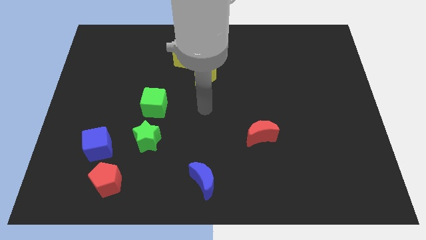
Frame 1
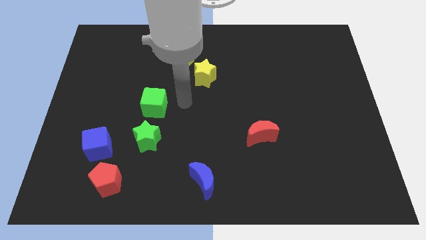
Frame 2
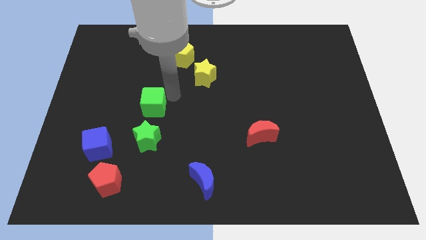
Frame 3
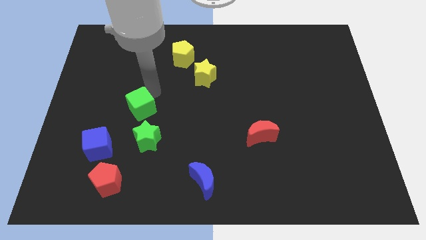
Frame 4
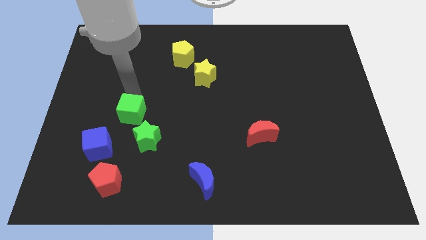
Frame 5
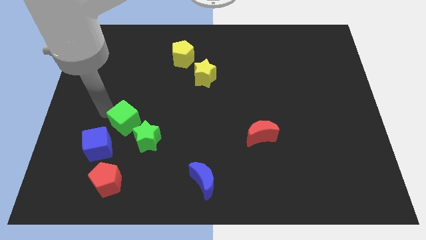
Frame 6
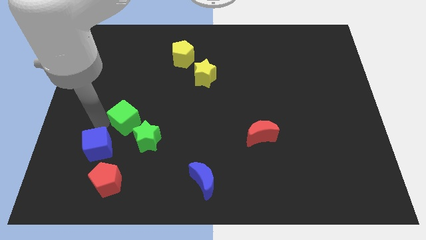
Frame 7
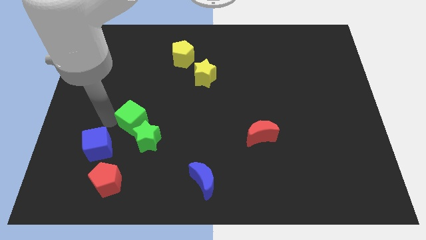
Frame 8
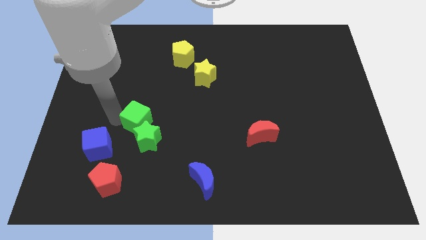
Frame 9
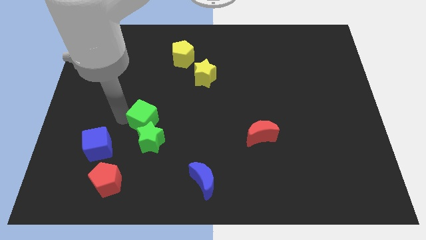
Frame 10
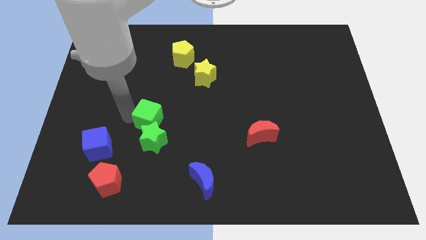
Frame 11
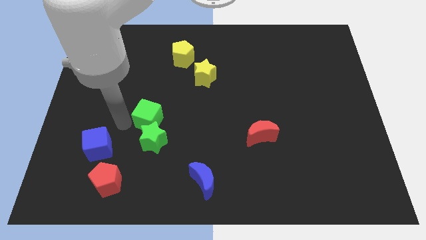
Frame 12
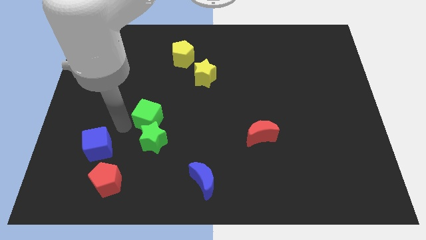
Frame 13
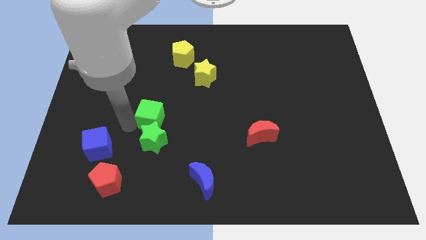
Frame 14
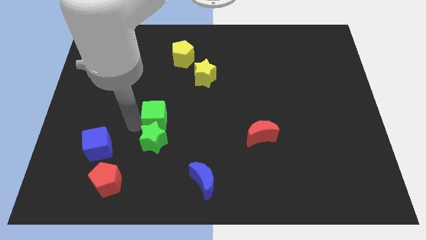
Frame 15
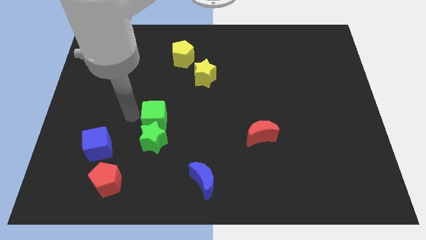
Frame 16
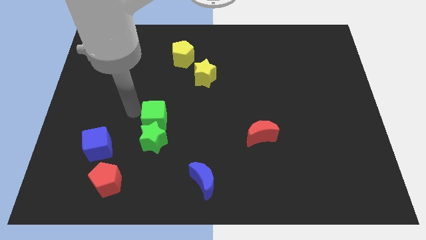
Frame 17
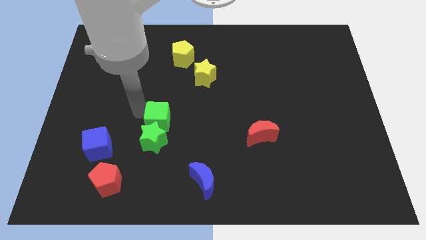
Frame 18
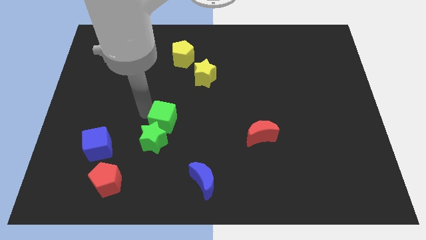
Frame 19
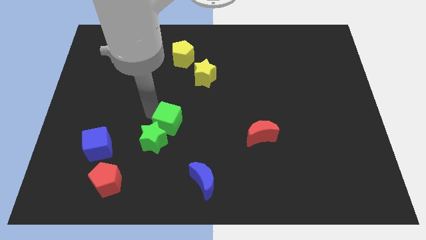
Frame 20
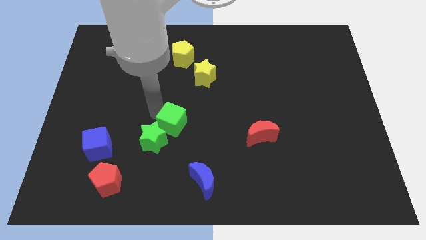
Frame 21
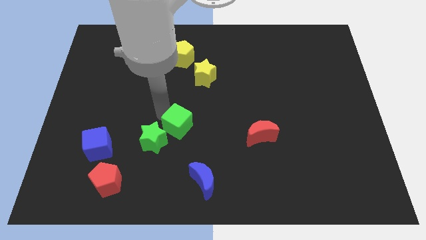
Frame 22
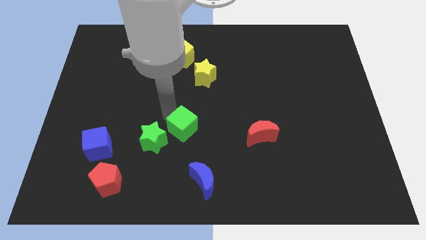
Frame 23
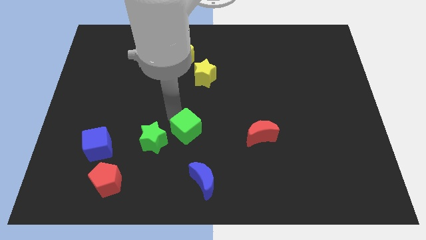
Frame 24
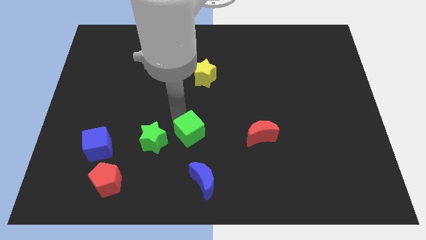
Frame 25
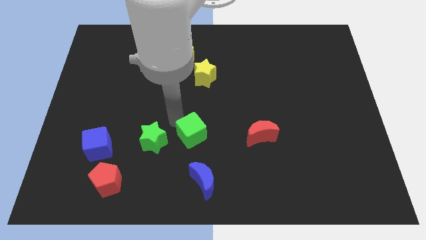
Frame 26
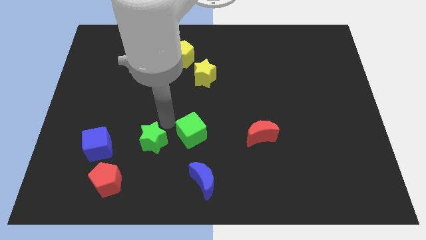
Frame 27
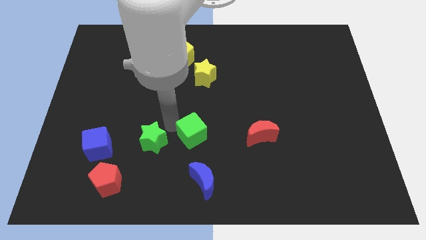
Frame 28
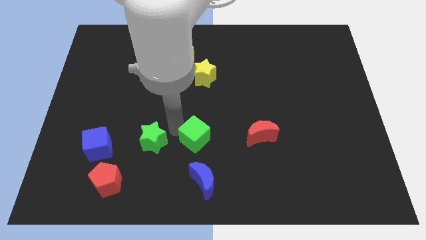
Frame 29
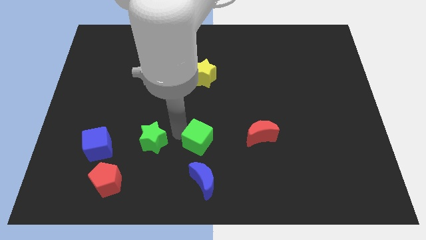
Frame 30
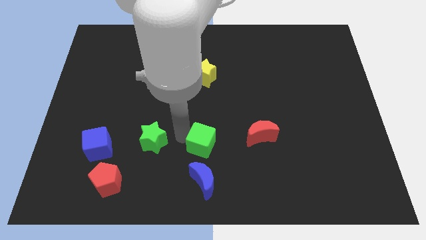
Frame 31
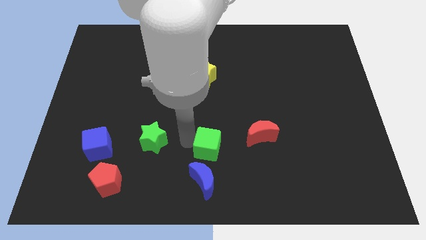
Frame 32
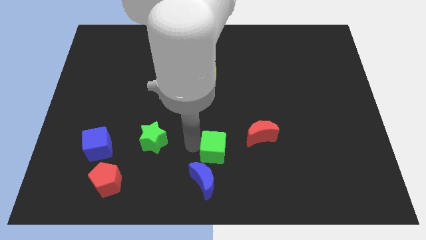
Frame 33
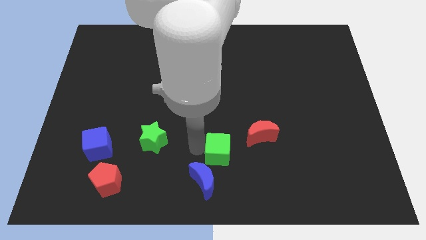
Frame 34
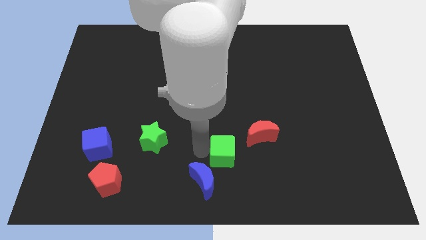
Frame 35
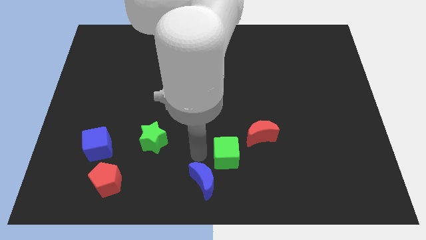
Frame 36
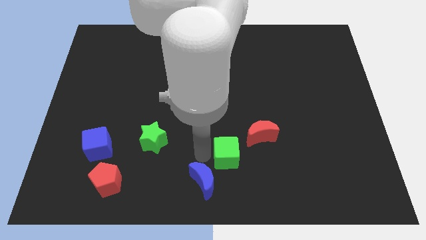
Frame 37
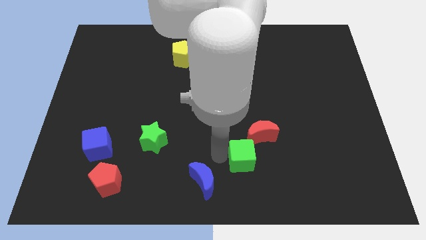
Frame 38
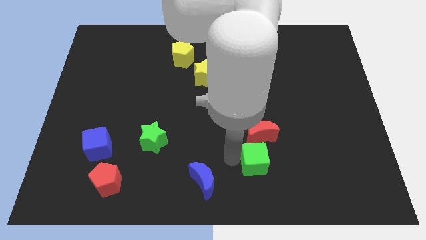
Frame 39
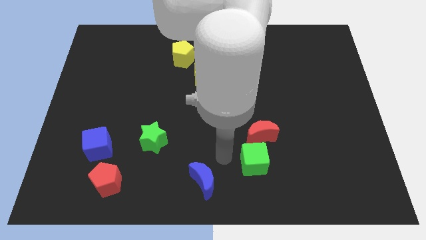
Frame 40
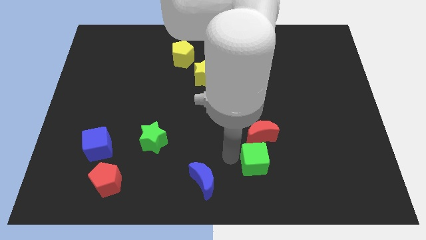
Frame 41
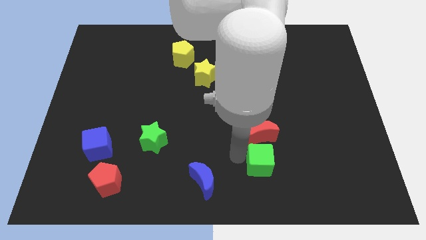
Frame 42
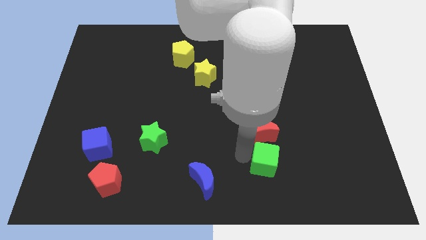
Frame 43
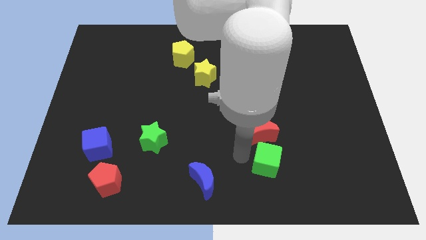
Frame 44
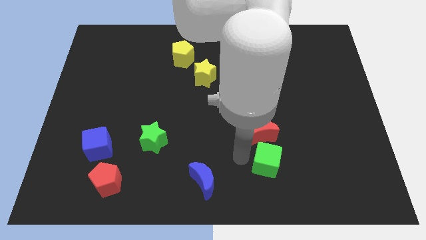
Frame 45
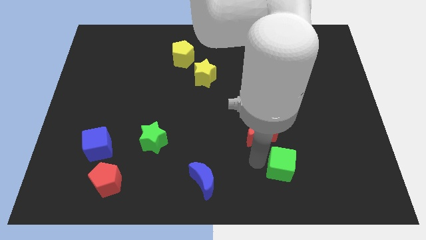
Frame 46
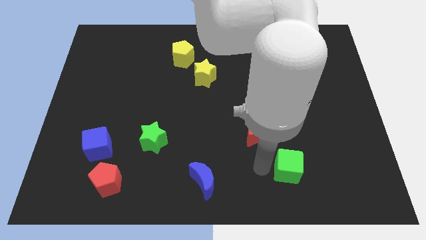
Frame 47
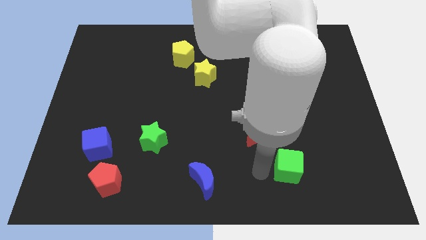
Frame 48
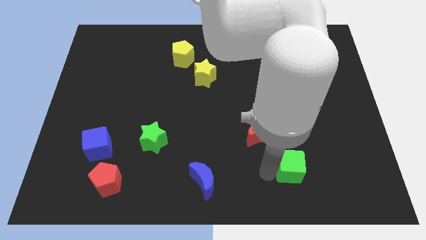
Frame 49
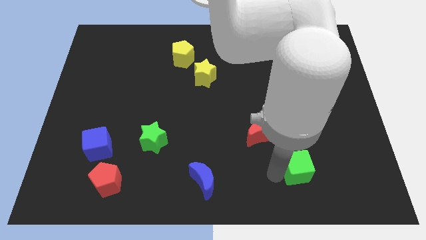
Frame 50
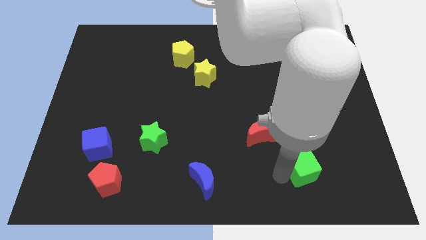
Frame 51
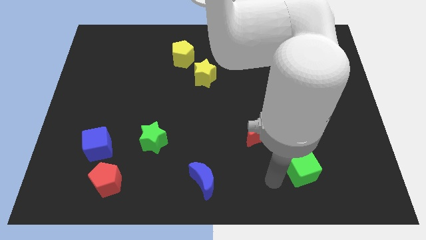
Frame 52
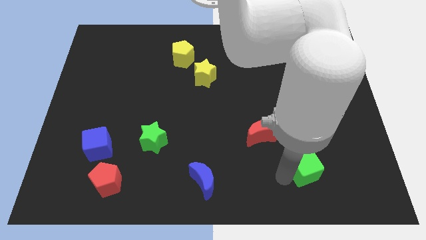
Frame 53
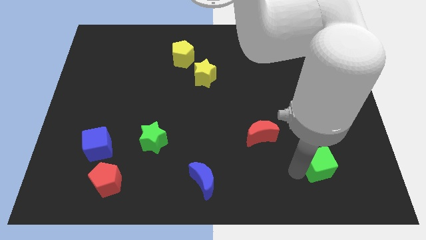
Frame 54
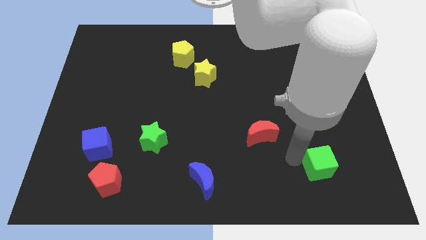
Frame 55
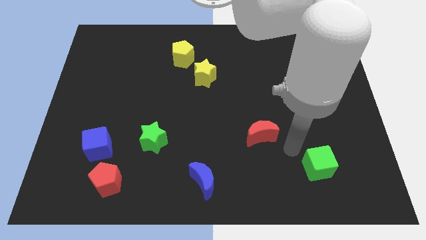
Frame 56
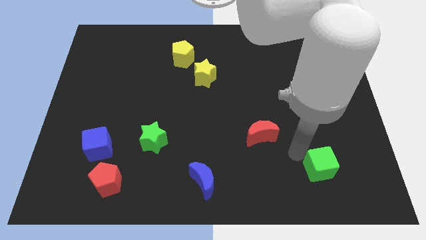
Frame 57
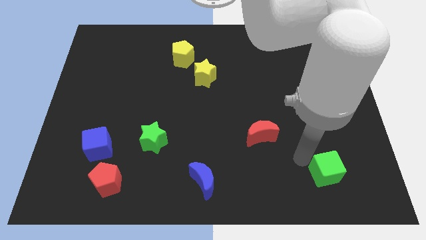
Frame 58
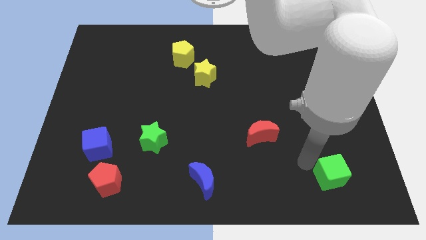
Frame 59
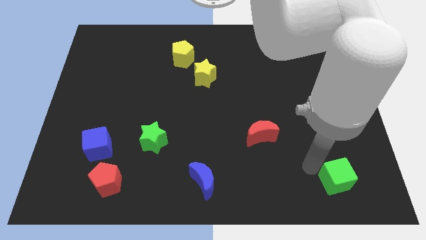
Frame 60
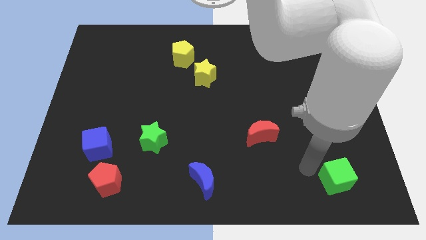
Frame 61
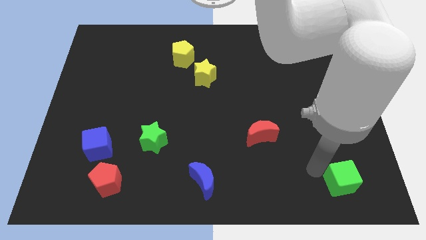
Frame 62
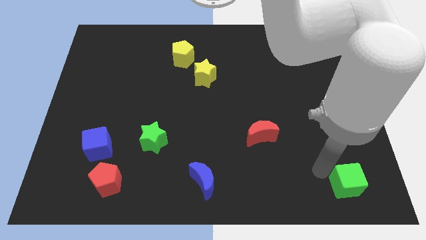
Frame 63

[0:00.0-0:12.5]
slide the green cube to the lower right corner
